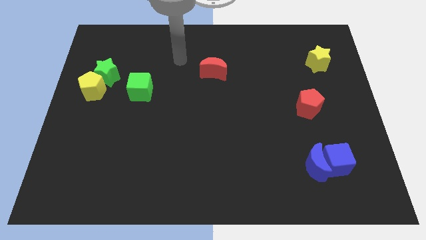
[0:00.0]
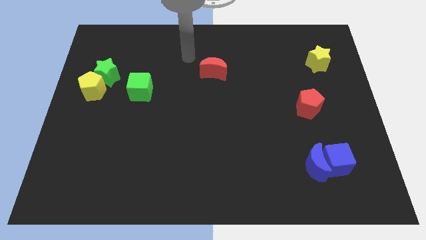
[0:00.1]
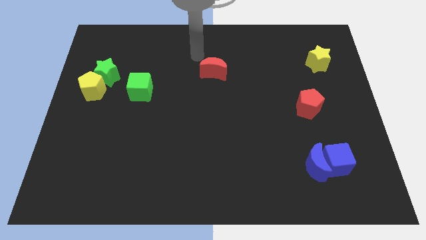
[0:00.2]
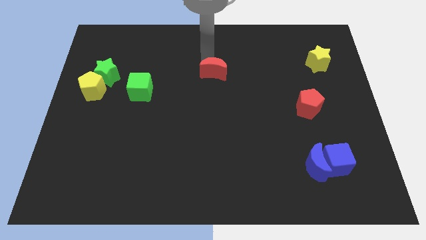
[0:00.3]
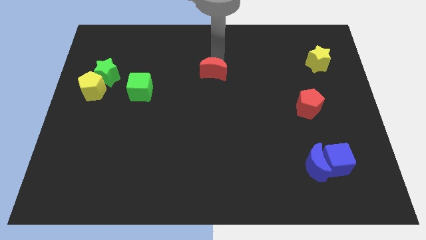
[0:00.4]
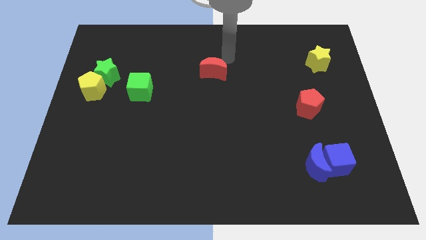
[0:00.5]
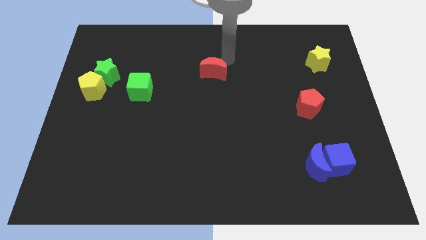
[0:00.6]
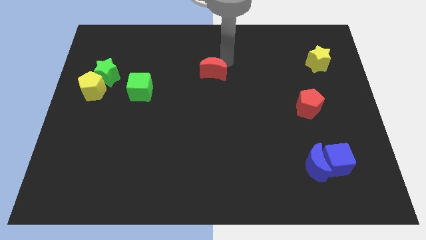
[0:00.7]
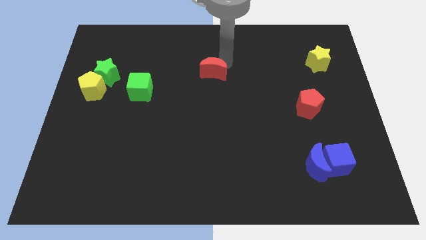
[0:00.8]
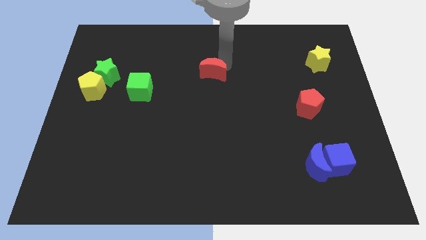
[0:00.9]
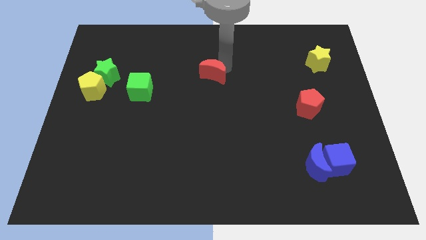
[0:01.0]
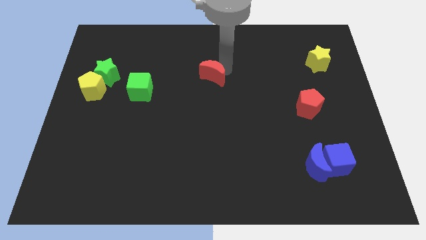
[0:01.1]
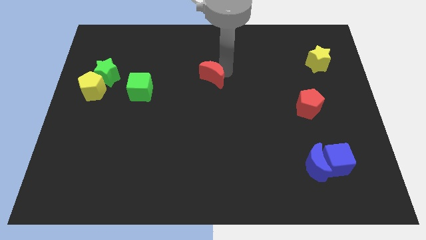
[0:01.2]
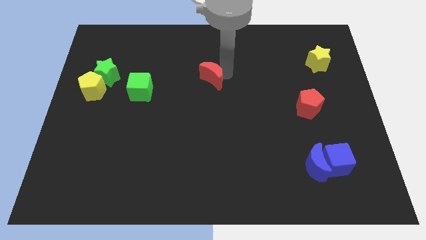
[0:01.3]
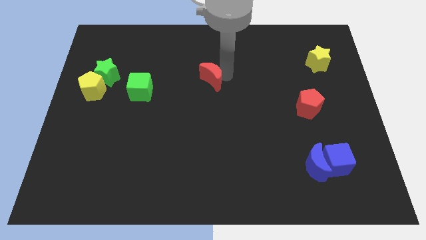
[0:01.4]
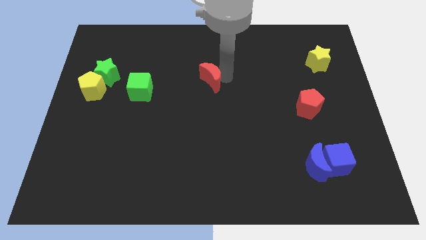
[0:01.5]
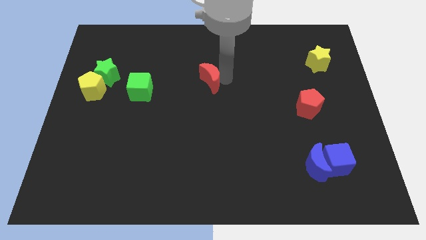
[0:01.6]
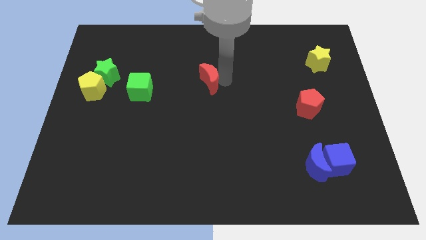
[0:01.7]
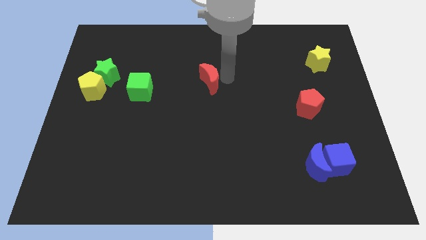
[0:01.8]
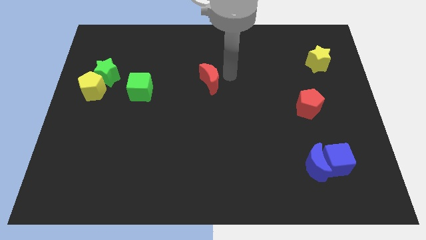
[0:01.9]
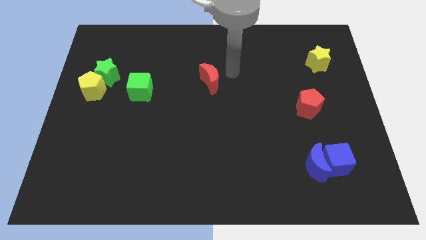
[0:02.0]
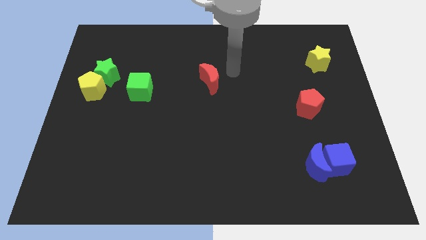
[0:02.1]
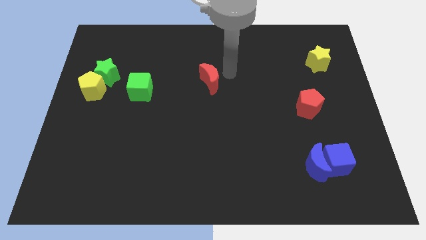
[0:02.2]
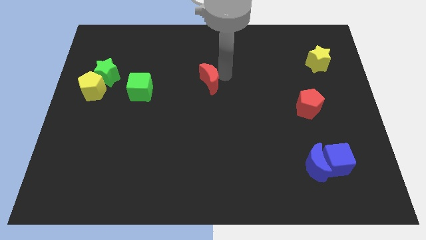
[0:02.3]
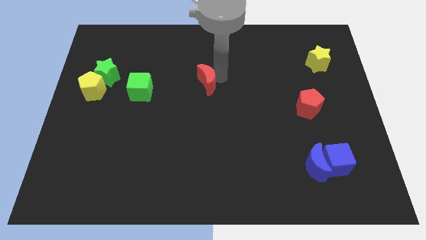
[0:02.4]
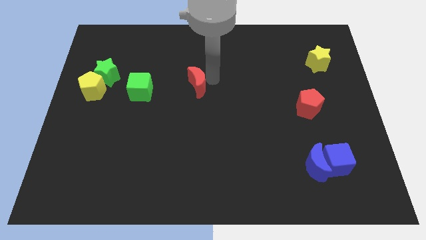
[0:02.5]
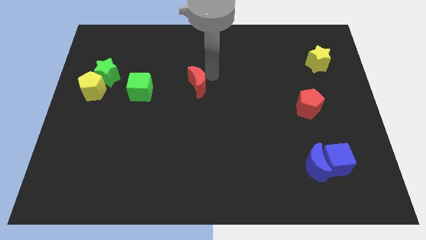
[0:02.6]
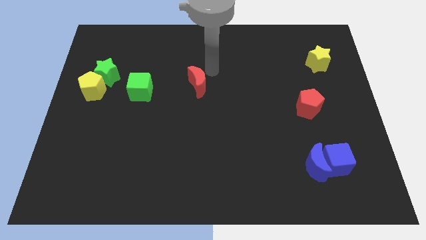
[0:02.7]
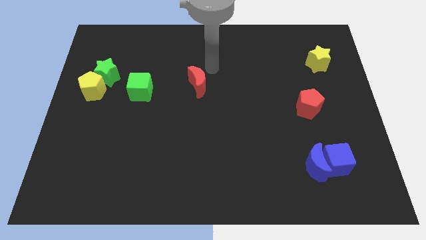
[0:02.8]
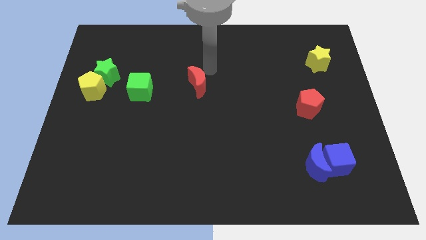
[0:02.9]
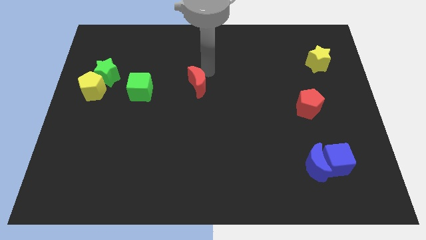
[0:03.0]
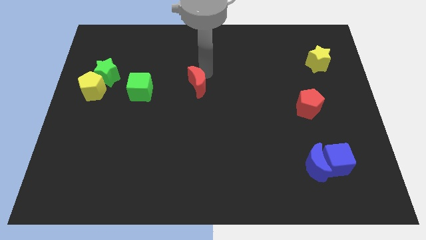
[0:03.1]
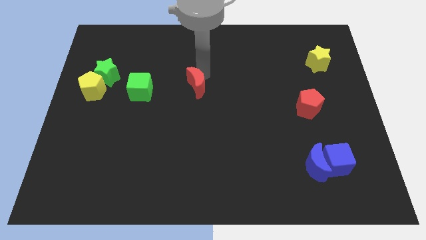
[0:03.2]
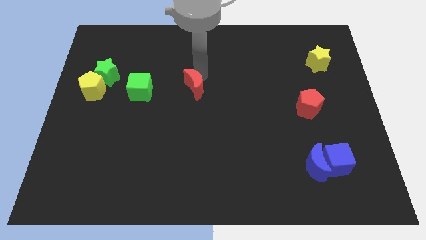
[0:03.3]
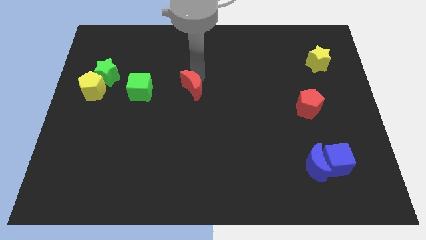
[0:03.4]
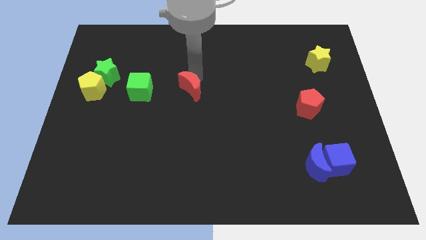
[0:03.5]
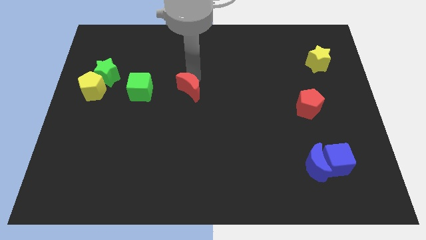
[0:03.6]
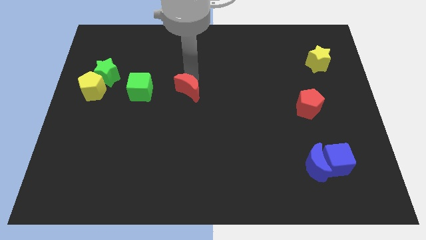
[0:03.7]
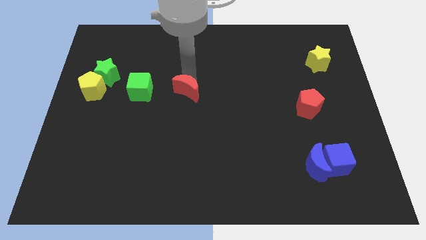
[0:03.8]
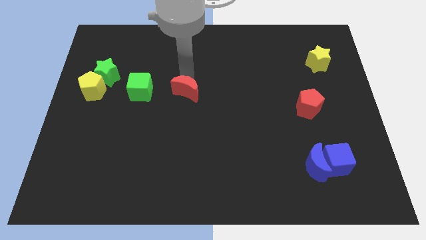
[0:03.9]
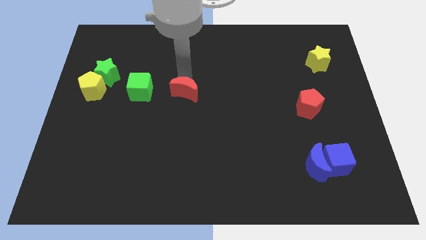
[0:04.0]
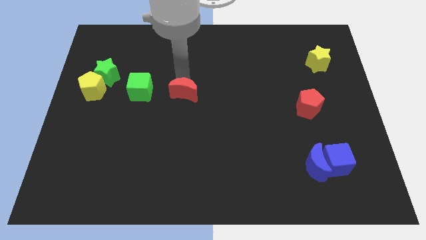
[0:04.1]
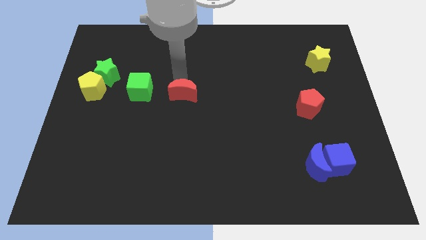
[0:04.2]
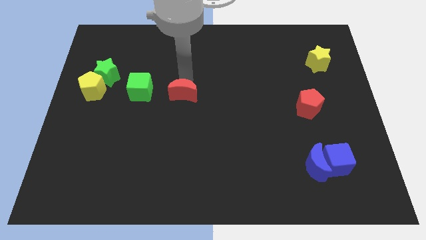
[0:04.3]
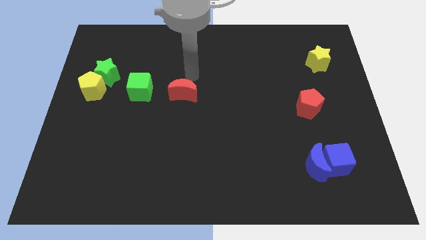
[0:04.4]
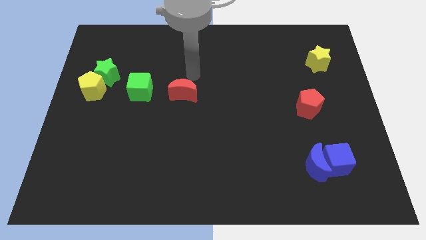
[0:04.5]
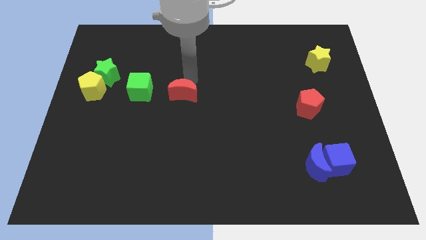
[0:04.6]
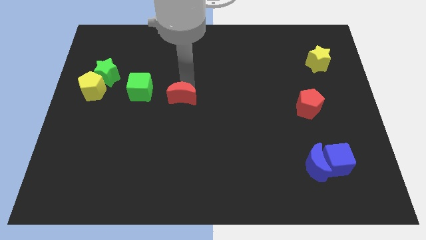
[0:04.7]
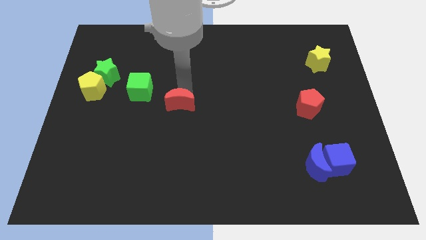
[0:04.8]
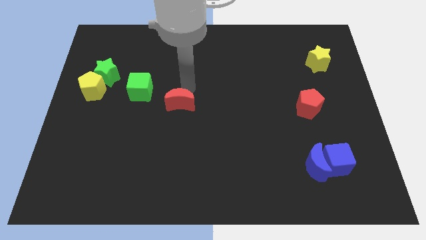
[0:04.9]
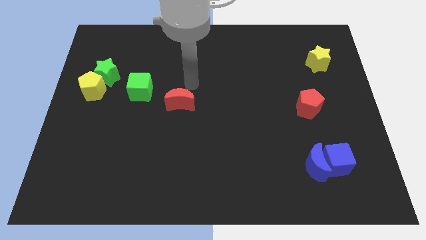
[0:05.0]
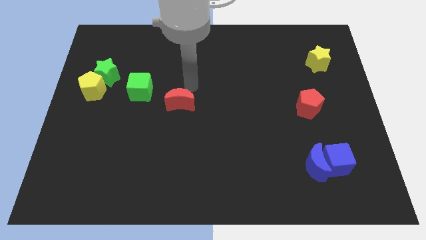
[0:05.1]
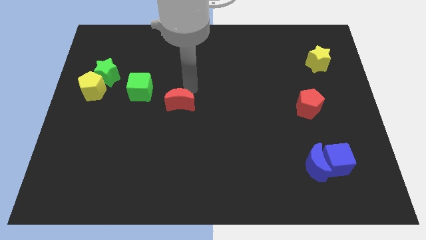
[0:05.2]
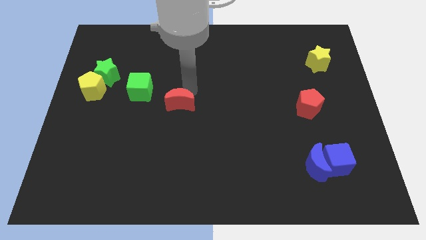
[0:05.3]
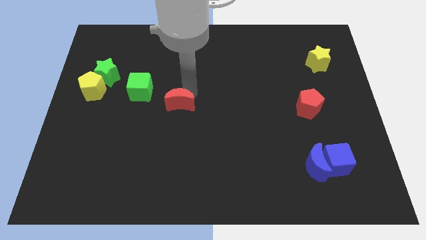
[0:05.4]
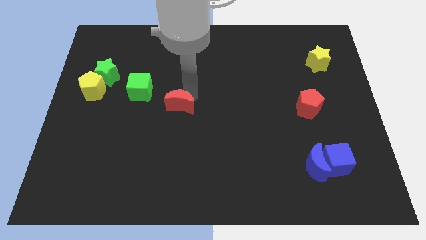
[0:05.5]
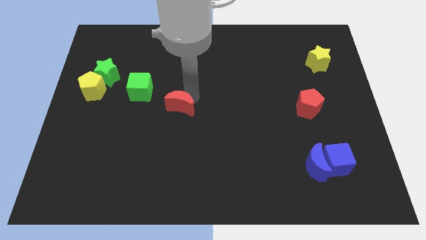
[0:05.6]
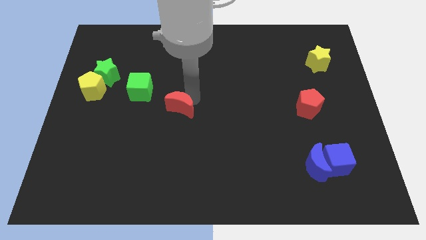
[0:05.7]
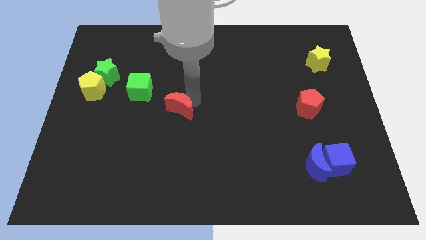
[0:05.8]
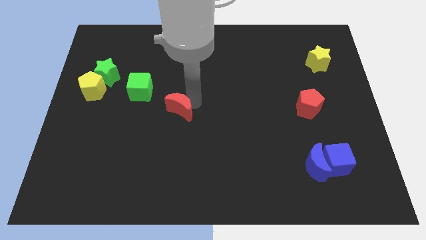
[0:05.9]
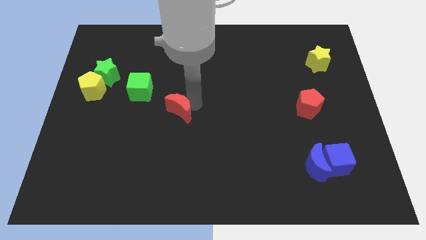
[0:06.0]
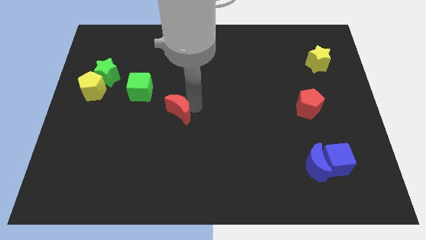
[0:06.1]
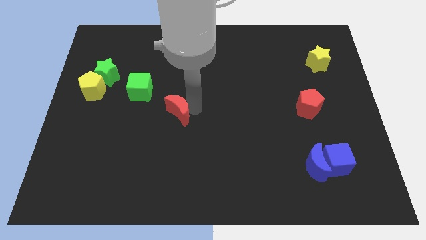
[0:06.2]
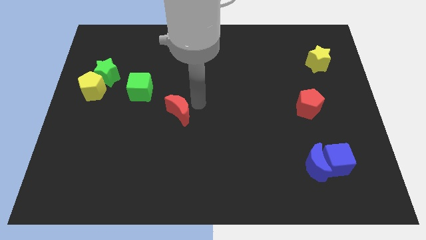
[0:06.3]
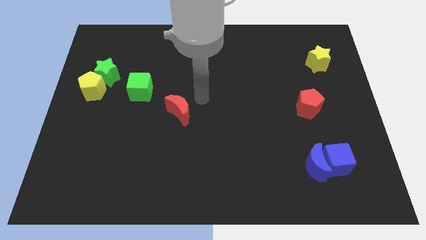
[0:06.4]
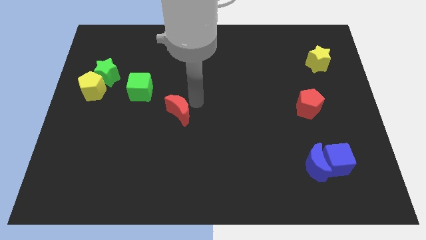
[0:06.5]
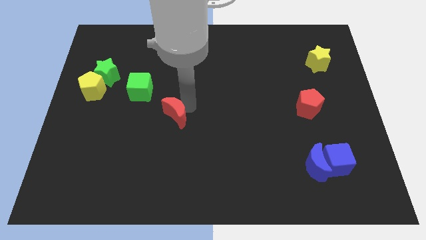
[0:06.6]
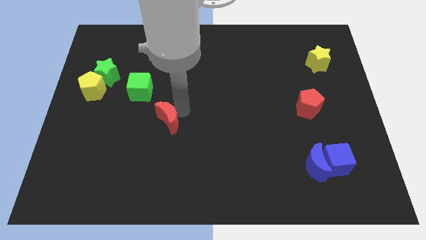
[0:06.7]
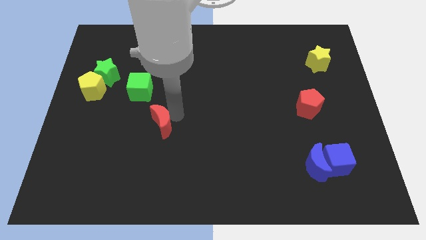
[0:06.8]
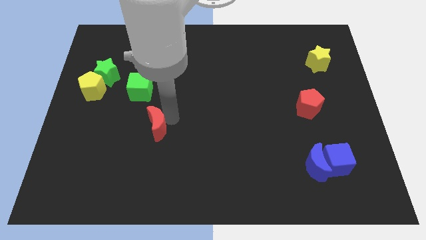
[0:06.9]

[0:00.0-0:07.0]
move the red moon down and then left

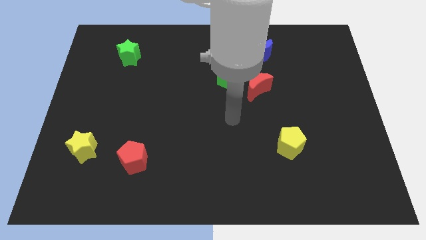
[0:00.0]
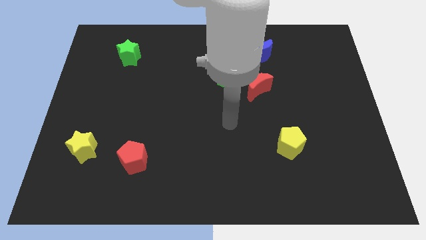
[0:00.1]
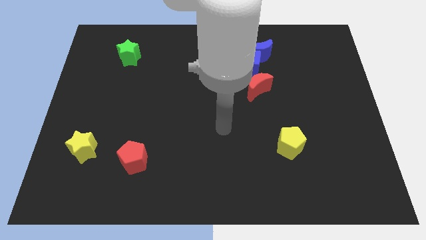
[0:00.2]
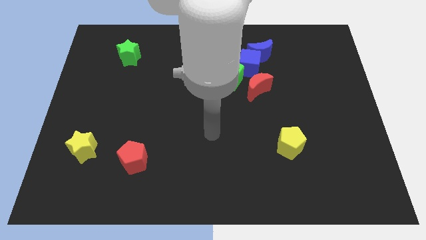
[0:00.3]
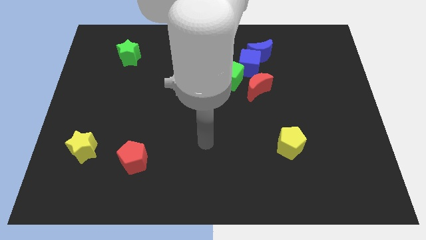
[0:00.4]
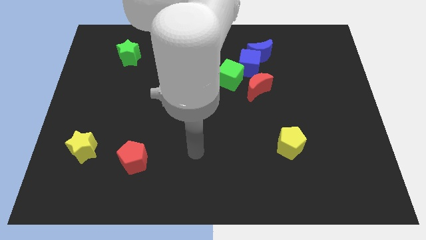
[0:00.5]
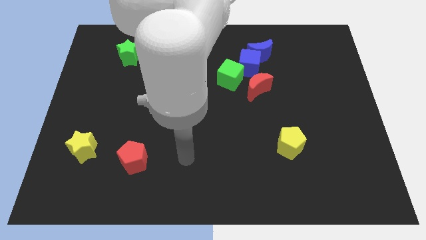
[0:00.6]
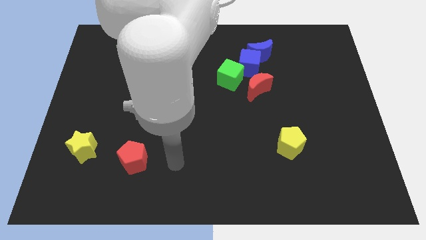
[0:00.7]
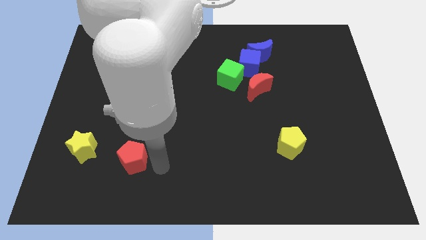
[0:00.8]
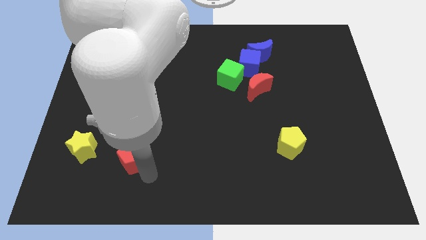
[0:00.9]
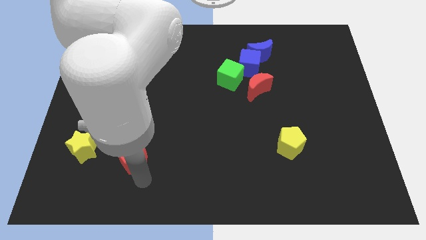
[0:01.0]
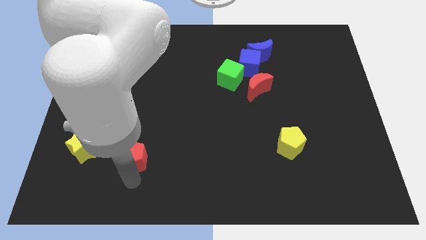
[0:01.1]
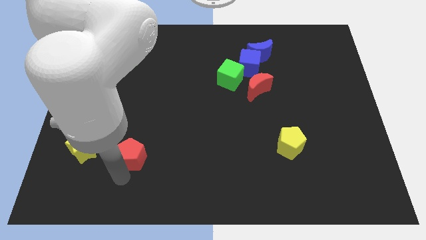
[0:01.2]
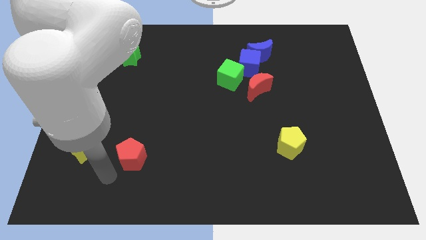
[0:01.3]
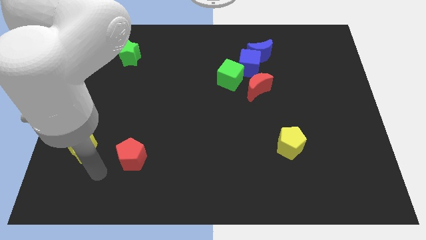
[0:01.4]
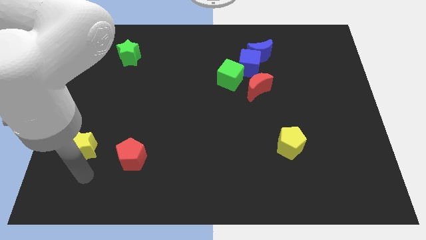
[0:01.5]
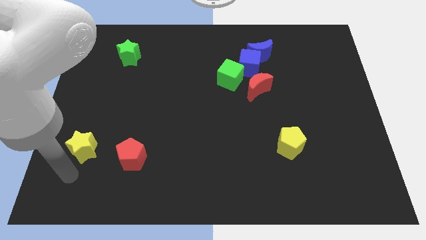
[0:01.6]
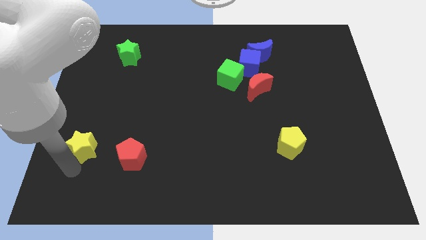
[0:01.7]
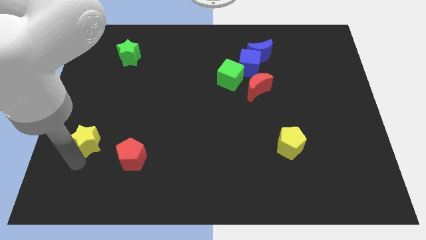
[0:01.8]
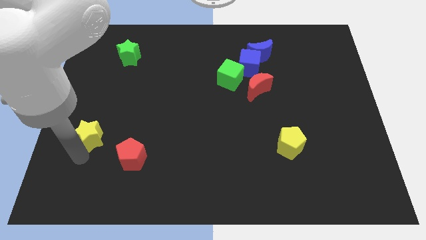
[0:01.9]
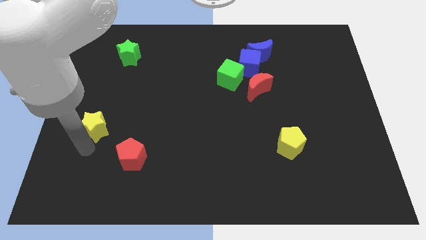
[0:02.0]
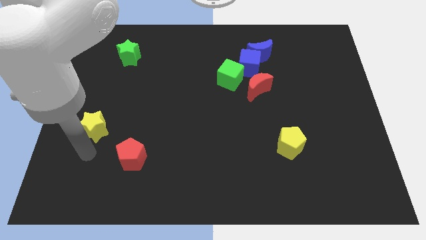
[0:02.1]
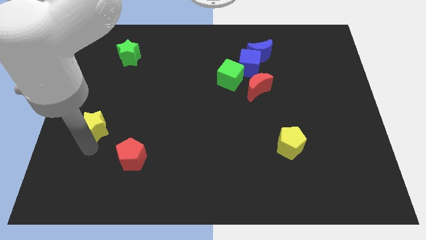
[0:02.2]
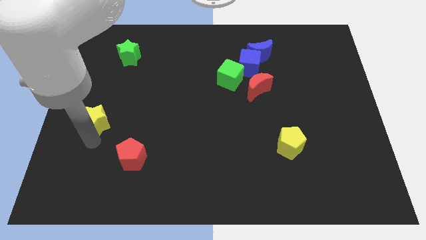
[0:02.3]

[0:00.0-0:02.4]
slightly push the yellow star upwards
